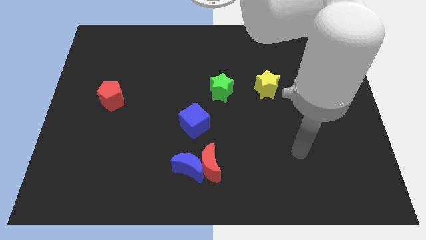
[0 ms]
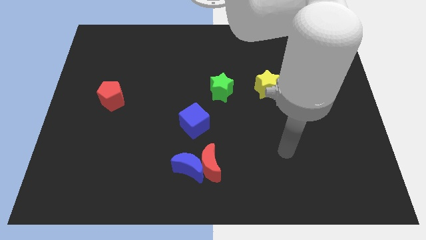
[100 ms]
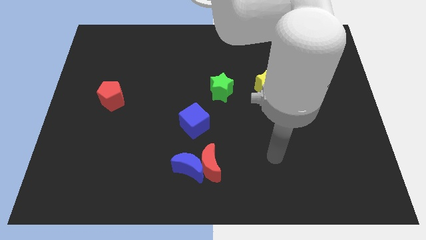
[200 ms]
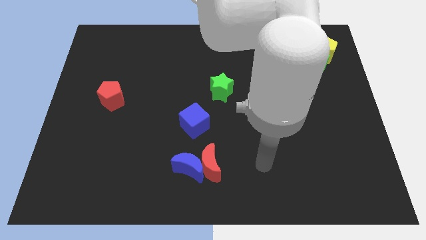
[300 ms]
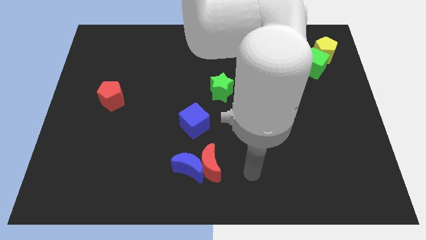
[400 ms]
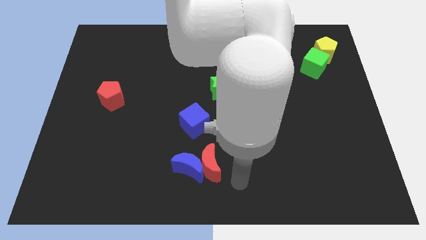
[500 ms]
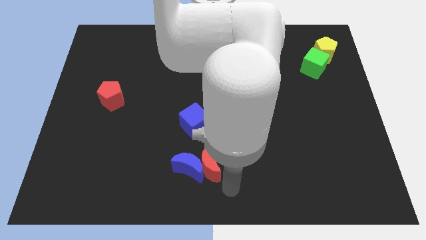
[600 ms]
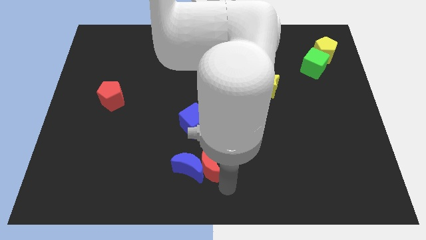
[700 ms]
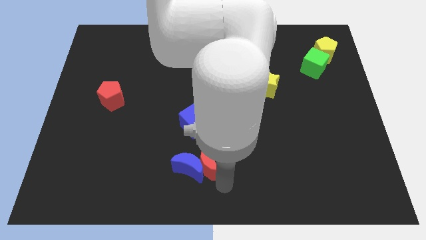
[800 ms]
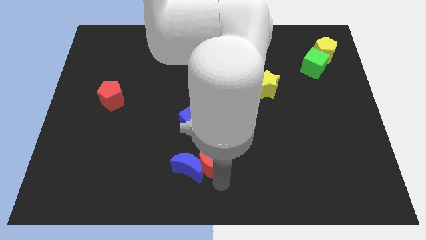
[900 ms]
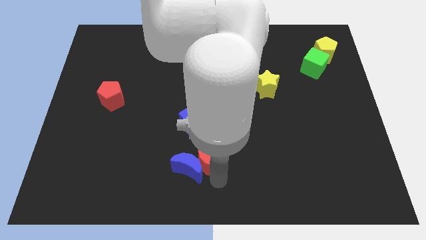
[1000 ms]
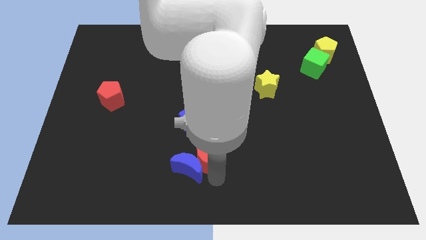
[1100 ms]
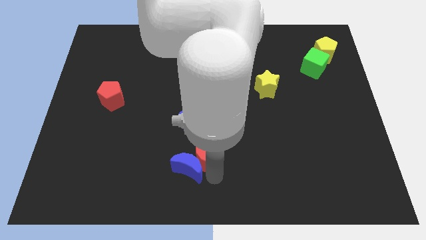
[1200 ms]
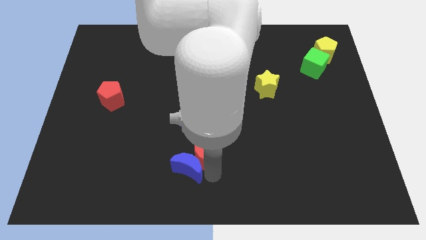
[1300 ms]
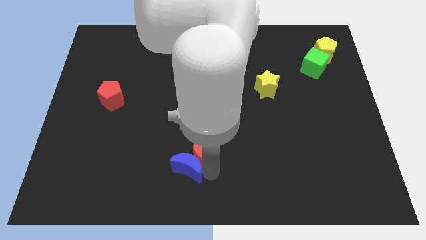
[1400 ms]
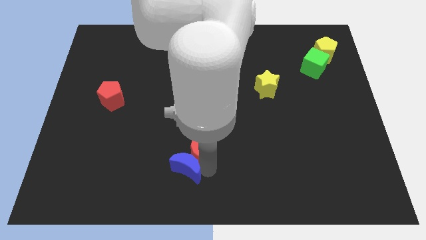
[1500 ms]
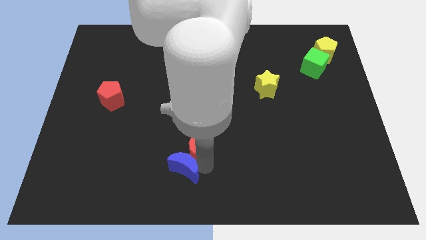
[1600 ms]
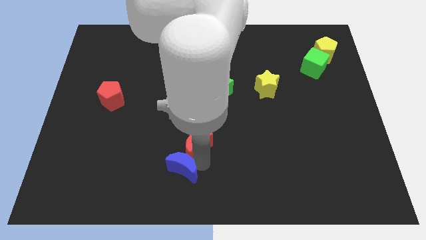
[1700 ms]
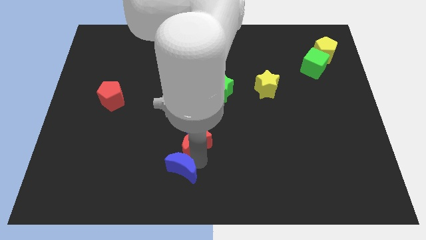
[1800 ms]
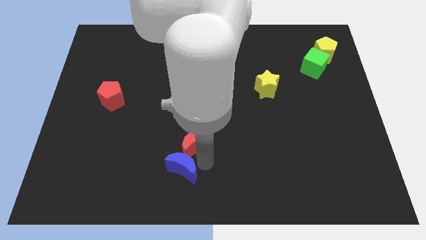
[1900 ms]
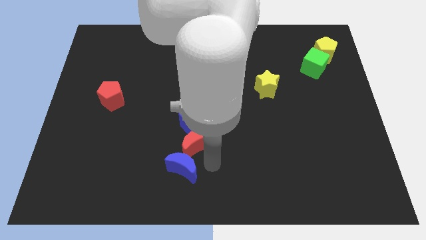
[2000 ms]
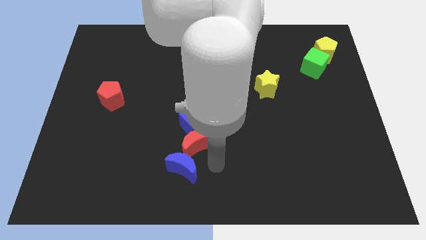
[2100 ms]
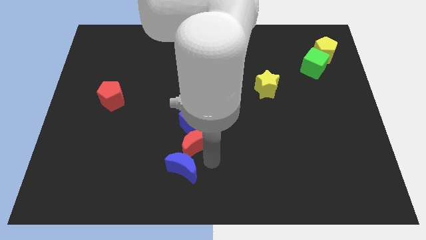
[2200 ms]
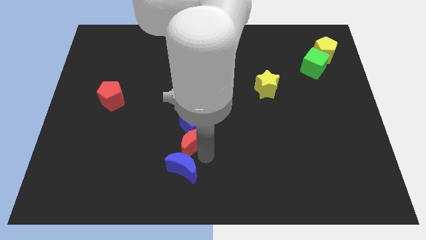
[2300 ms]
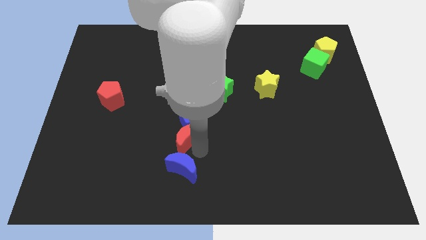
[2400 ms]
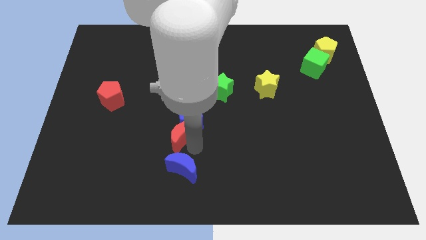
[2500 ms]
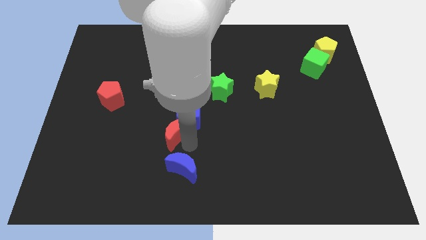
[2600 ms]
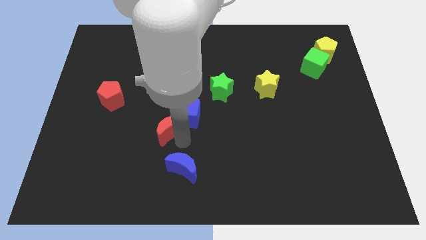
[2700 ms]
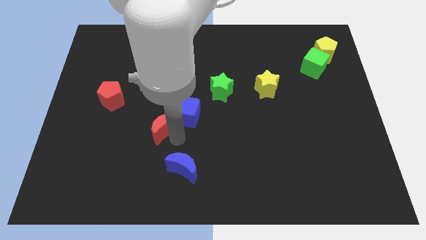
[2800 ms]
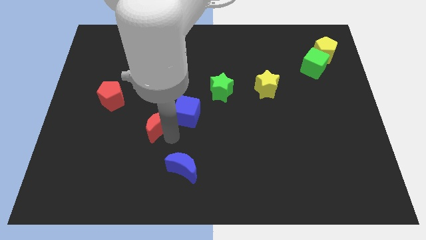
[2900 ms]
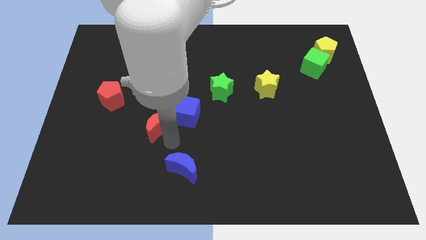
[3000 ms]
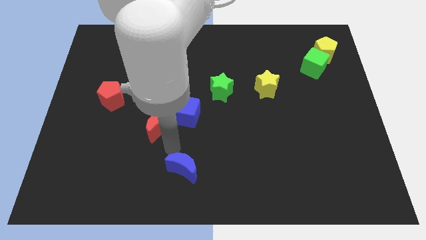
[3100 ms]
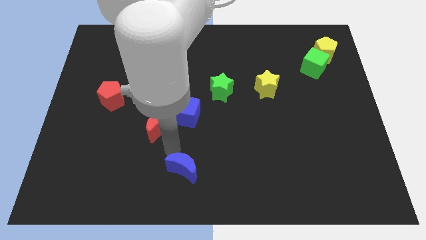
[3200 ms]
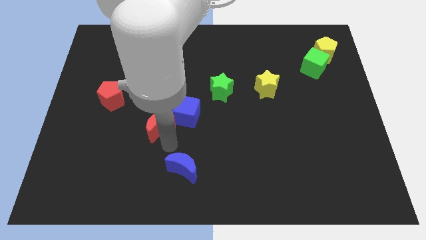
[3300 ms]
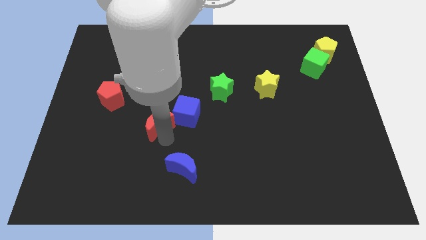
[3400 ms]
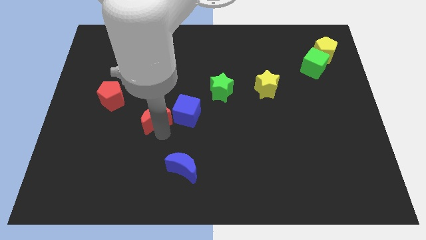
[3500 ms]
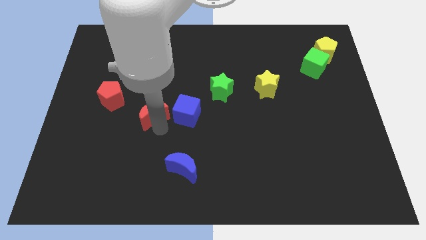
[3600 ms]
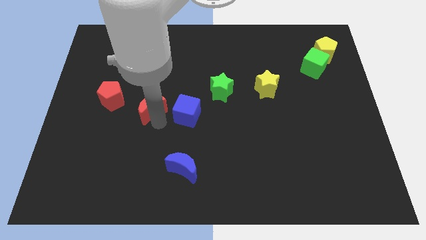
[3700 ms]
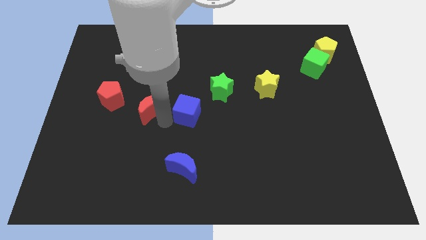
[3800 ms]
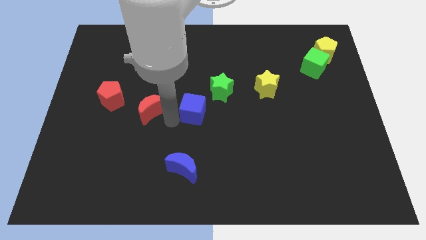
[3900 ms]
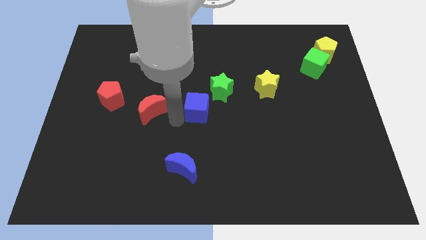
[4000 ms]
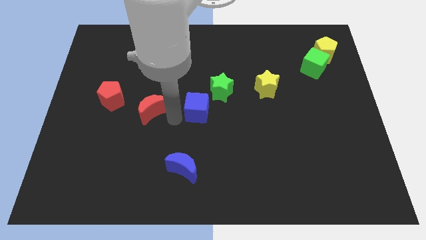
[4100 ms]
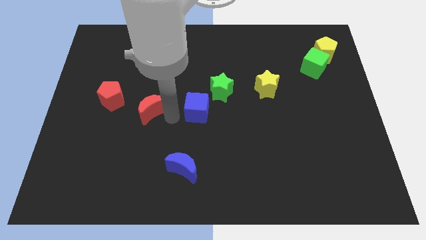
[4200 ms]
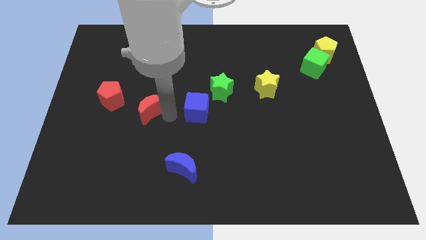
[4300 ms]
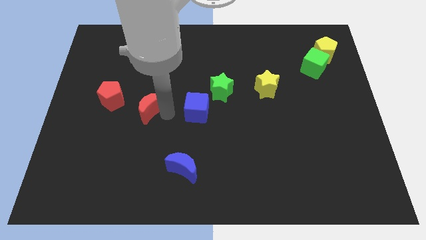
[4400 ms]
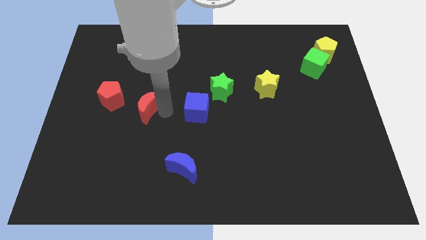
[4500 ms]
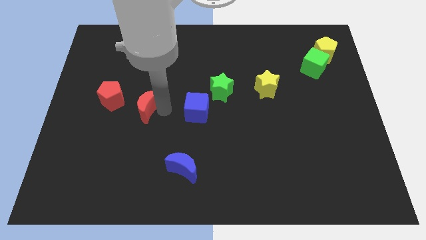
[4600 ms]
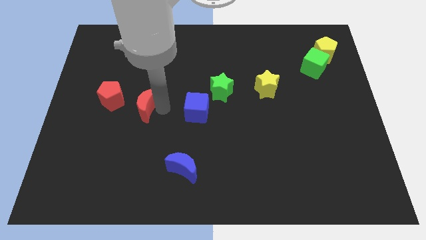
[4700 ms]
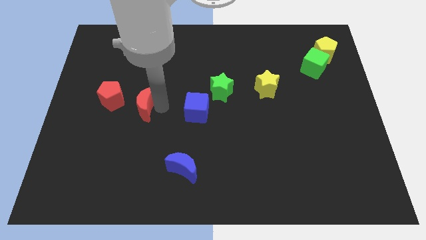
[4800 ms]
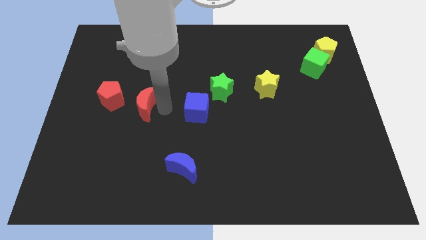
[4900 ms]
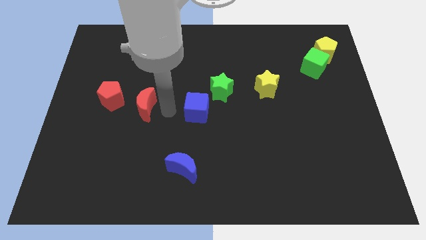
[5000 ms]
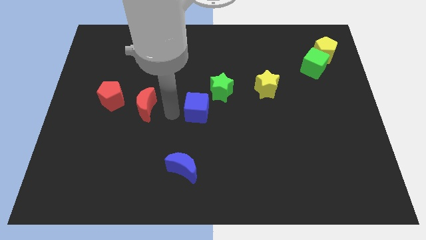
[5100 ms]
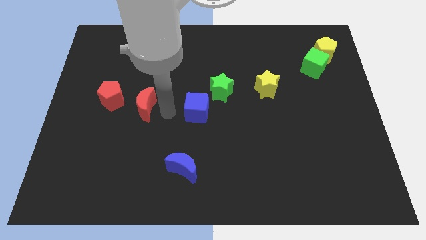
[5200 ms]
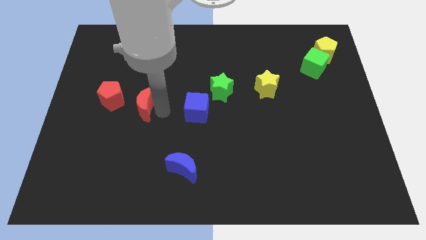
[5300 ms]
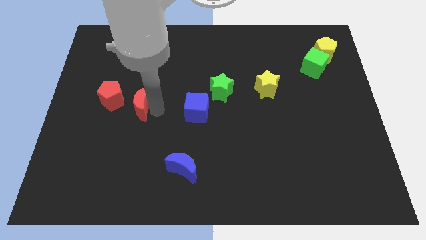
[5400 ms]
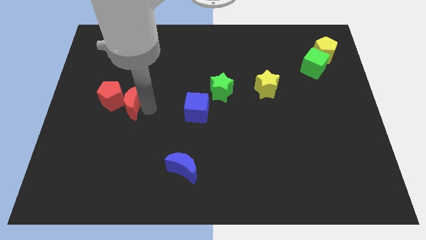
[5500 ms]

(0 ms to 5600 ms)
move the red moon close to the red pentagon

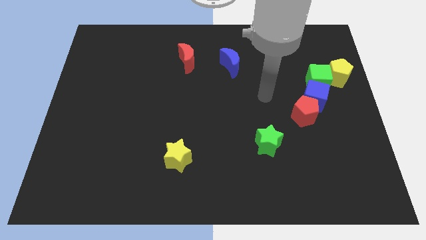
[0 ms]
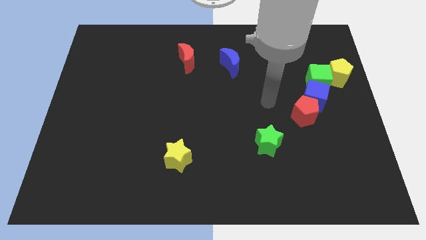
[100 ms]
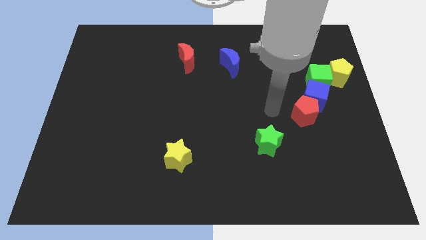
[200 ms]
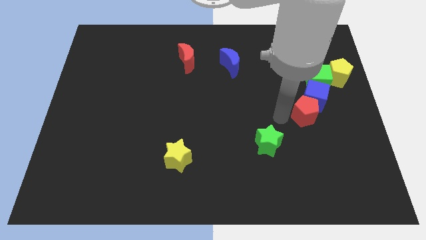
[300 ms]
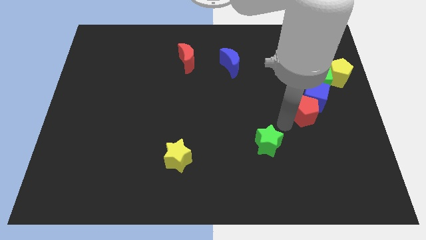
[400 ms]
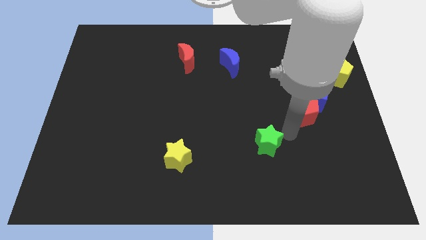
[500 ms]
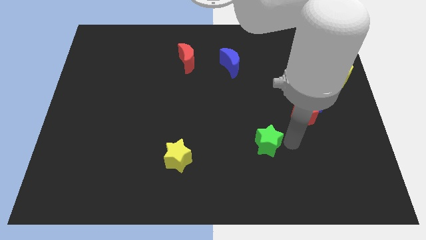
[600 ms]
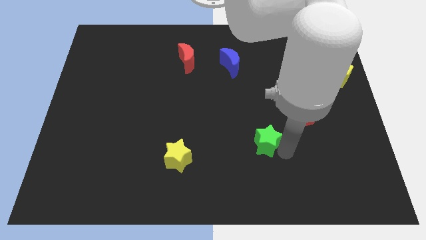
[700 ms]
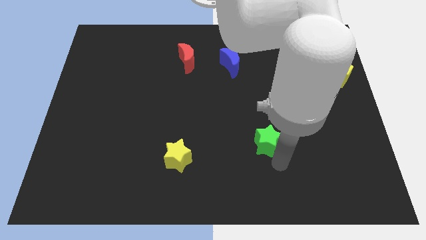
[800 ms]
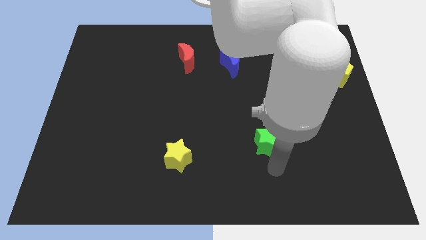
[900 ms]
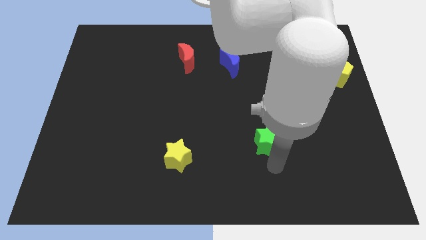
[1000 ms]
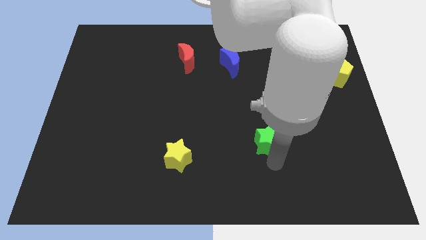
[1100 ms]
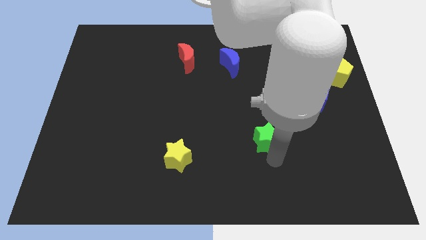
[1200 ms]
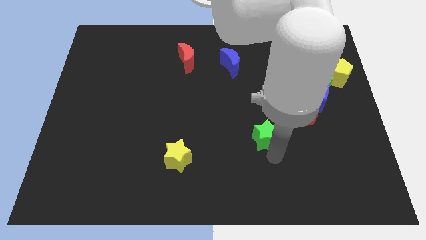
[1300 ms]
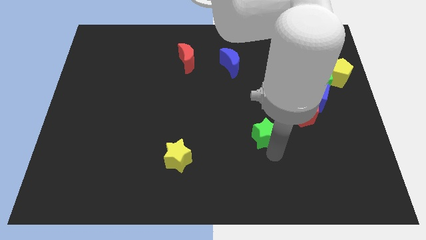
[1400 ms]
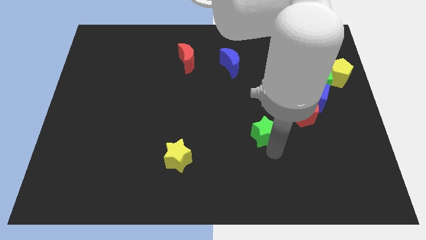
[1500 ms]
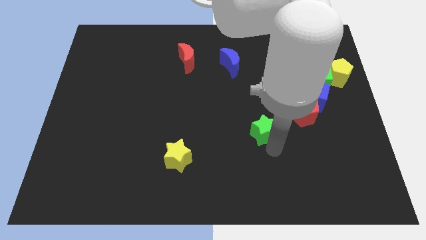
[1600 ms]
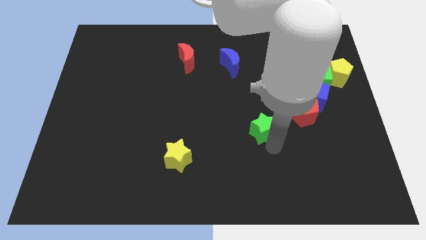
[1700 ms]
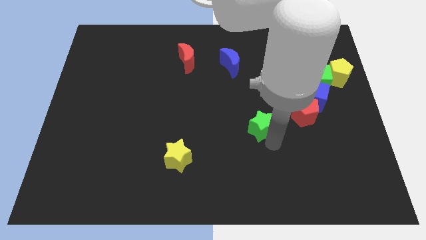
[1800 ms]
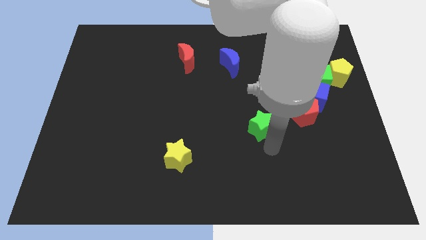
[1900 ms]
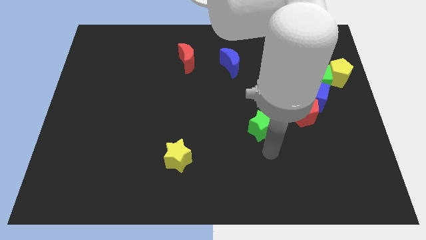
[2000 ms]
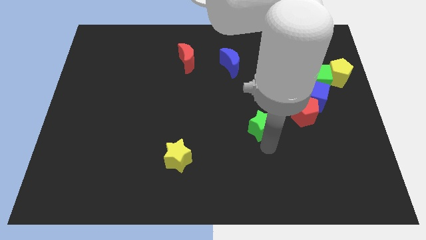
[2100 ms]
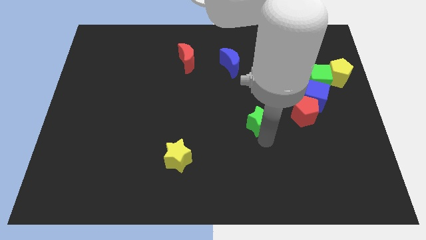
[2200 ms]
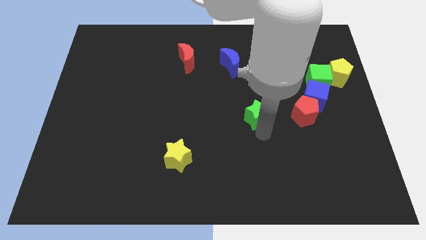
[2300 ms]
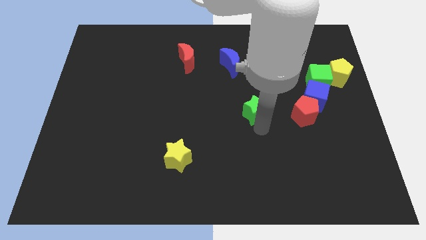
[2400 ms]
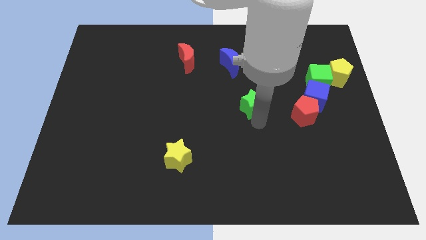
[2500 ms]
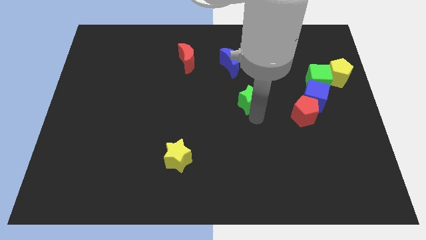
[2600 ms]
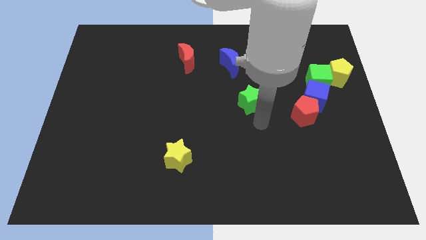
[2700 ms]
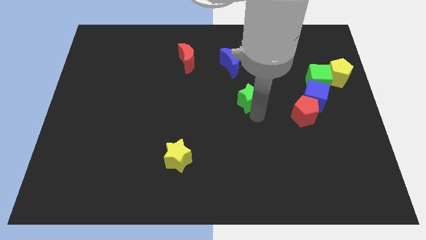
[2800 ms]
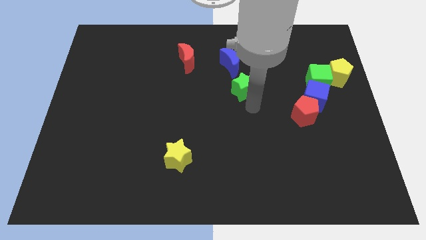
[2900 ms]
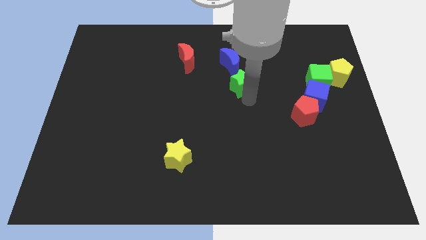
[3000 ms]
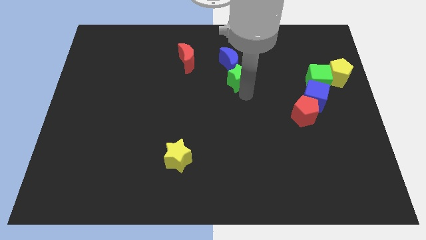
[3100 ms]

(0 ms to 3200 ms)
slide the green star to the blue moon
